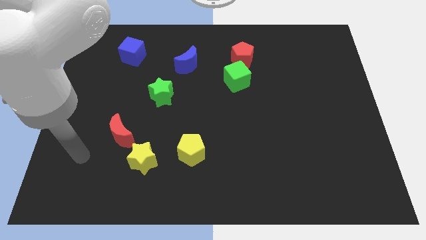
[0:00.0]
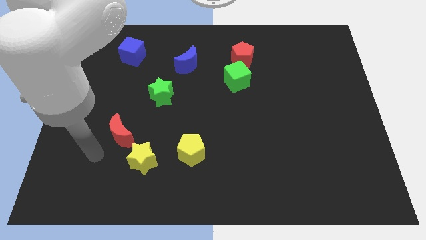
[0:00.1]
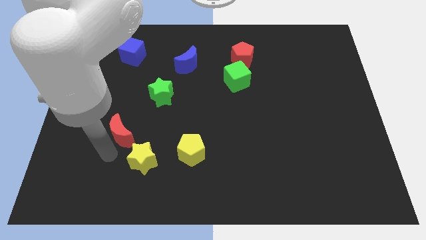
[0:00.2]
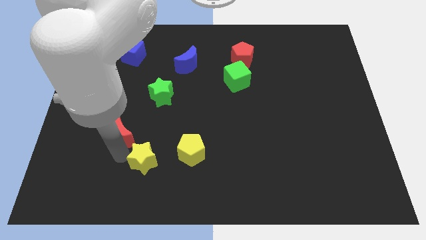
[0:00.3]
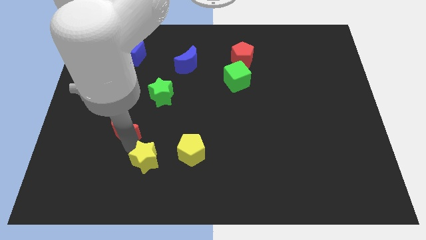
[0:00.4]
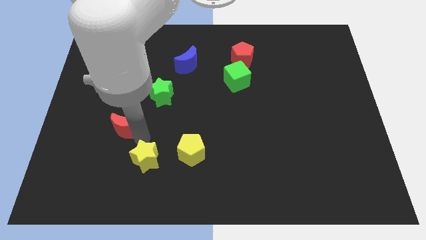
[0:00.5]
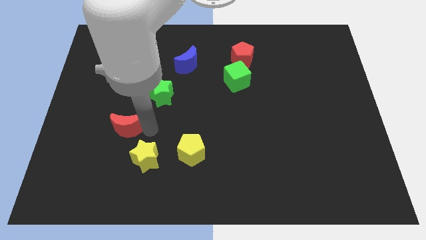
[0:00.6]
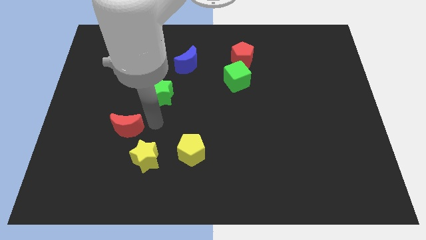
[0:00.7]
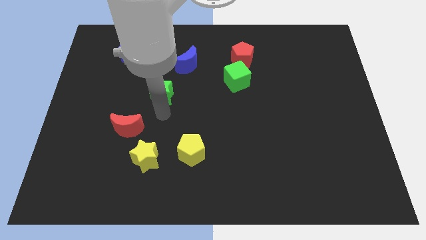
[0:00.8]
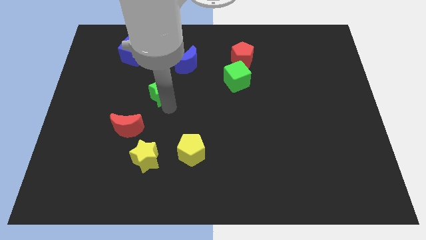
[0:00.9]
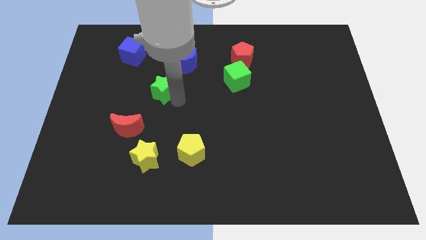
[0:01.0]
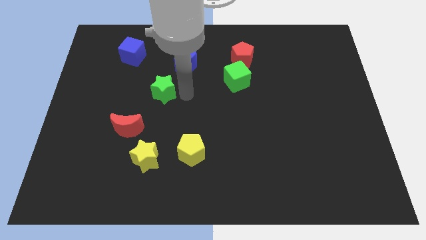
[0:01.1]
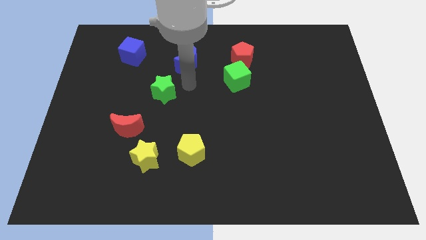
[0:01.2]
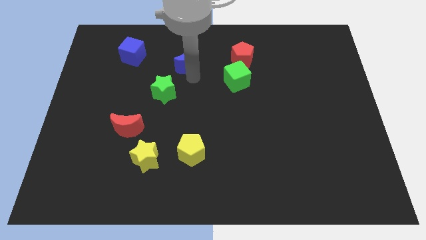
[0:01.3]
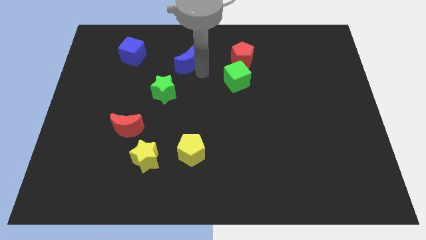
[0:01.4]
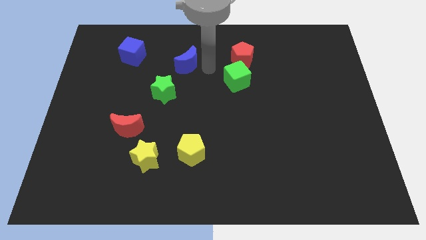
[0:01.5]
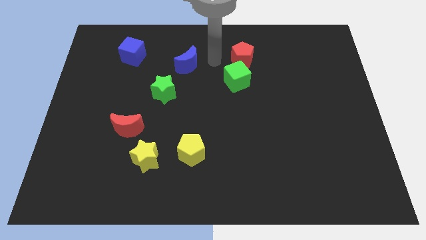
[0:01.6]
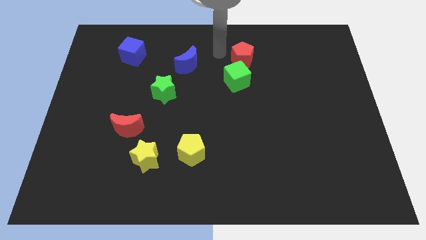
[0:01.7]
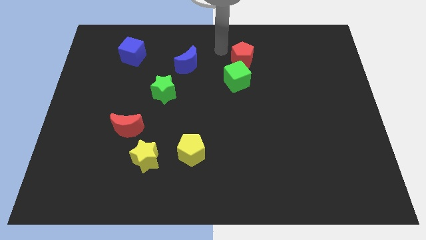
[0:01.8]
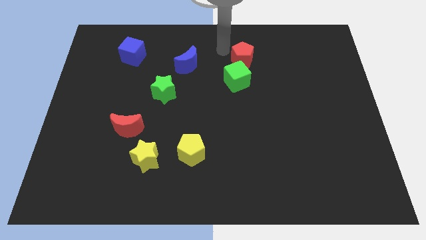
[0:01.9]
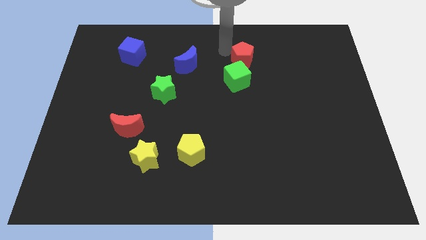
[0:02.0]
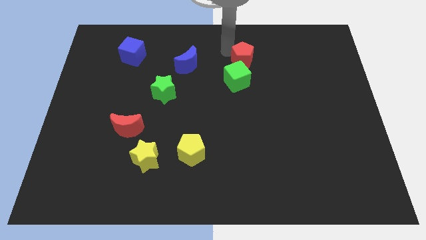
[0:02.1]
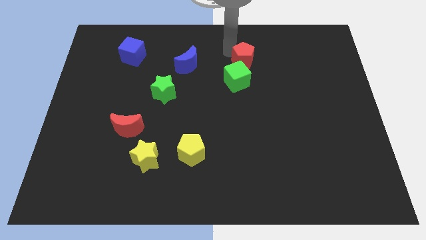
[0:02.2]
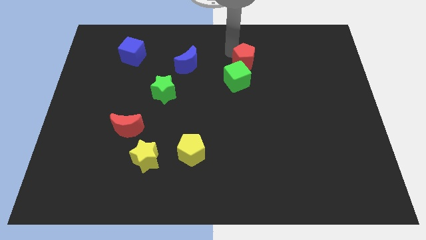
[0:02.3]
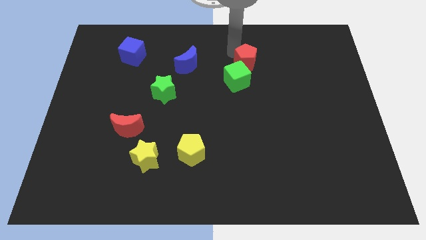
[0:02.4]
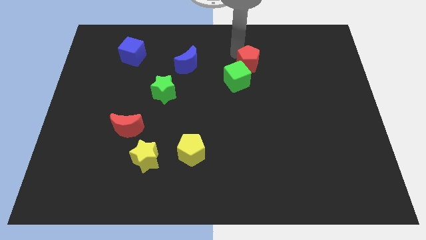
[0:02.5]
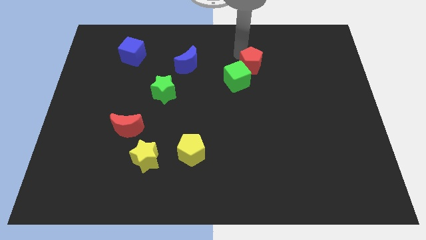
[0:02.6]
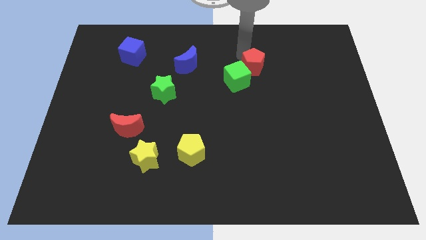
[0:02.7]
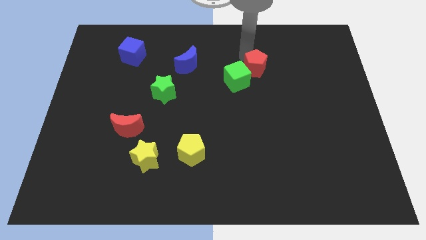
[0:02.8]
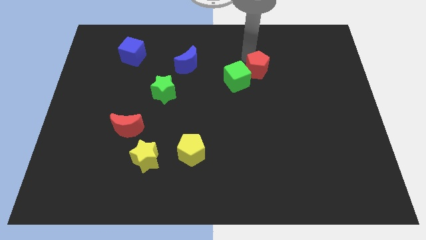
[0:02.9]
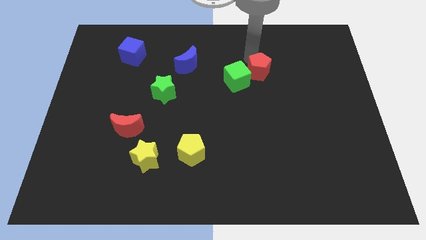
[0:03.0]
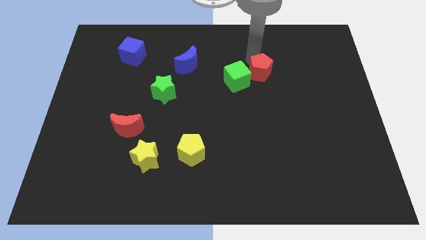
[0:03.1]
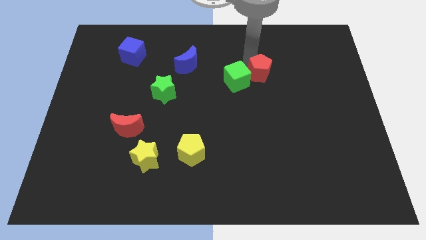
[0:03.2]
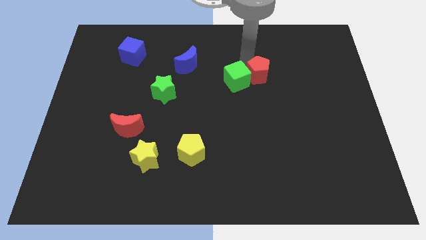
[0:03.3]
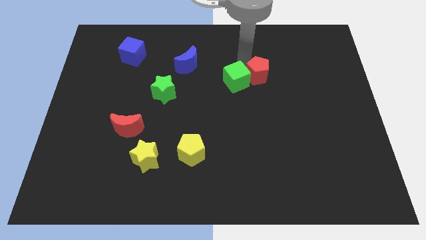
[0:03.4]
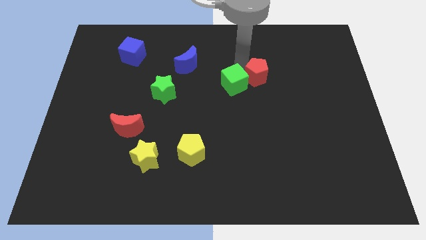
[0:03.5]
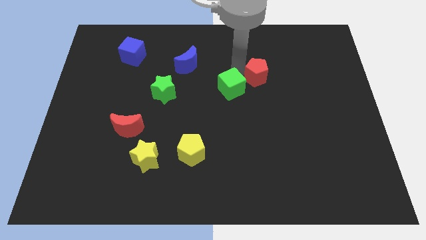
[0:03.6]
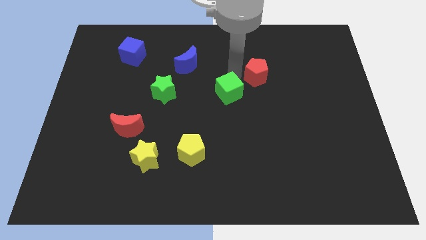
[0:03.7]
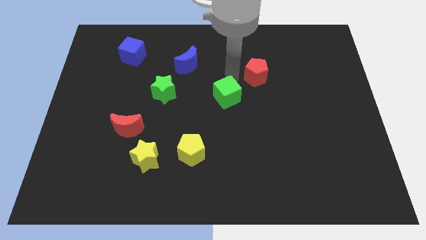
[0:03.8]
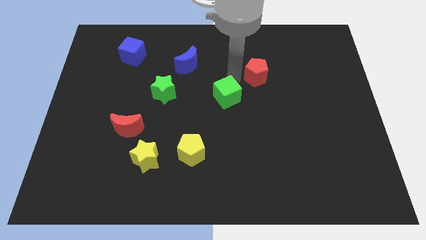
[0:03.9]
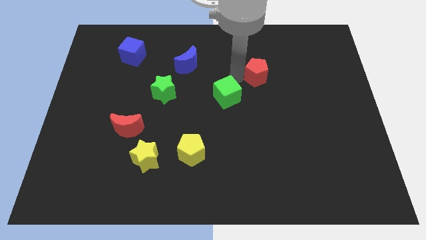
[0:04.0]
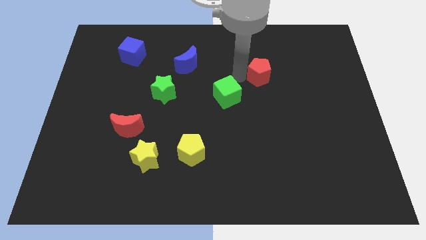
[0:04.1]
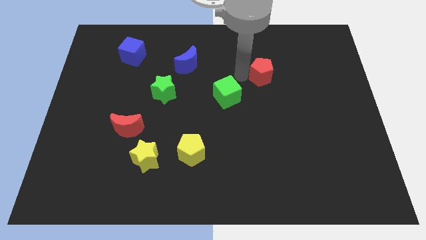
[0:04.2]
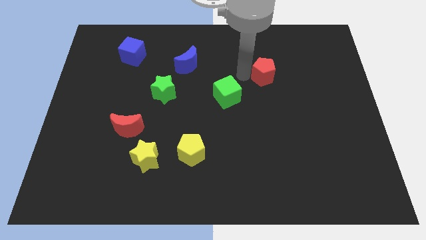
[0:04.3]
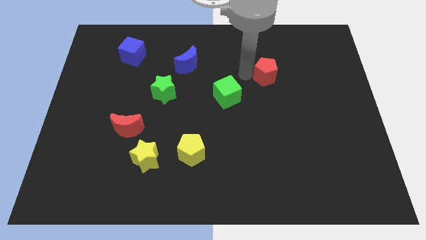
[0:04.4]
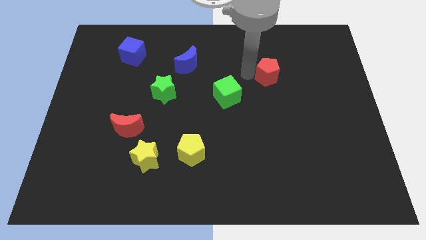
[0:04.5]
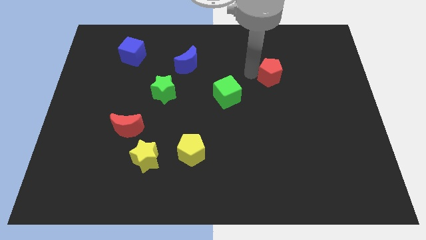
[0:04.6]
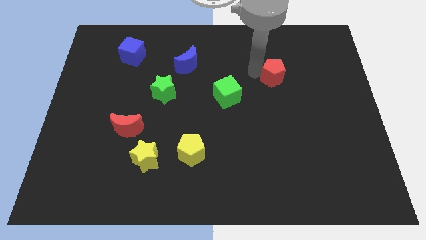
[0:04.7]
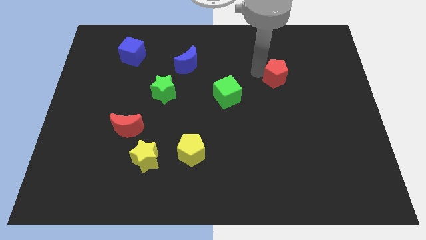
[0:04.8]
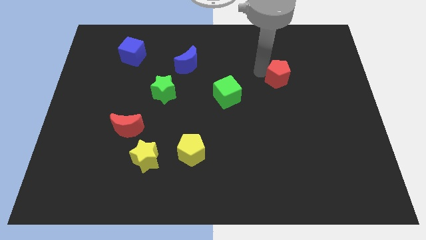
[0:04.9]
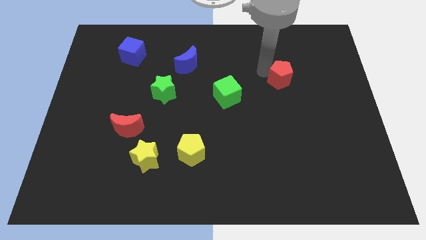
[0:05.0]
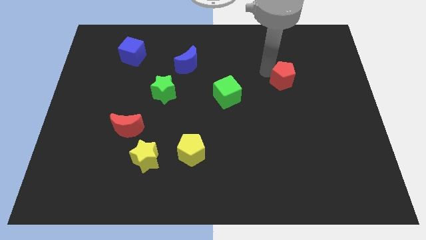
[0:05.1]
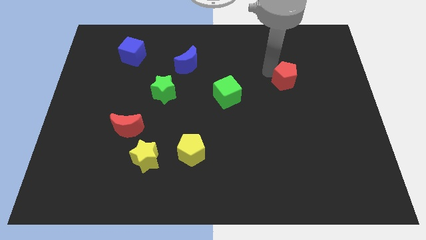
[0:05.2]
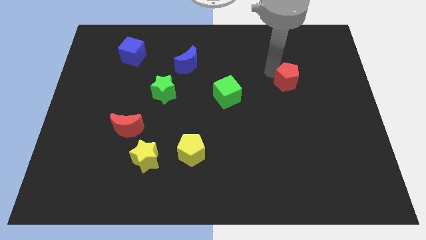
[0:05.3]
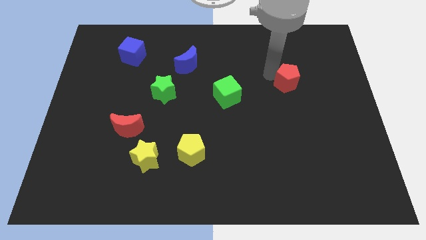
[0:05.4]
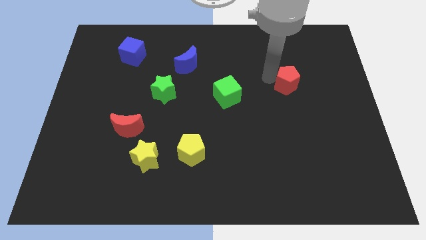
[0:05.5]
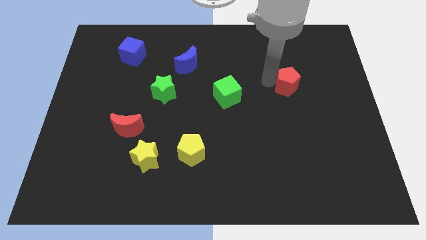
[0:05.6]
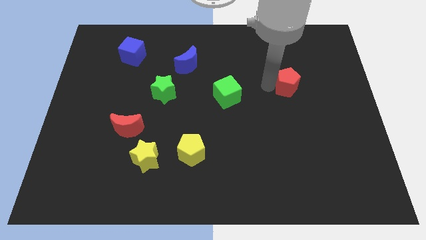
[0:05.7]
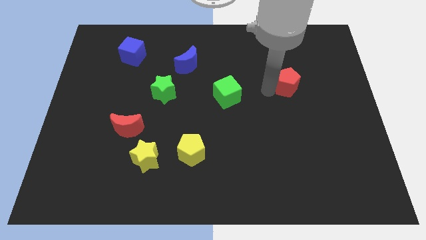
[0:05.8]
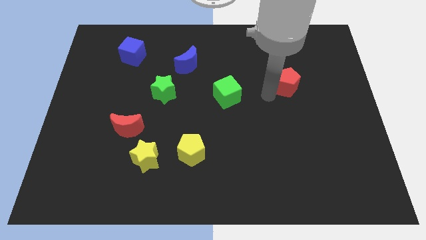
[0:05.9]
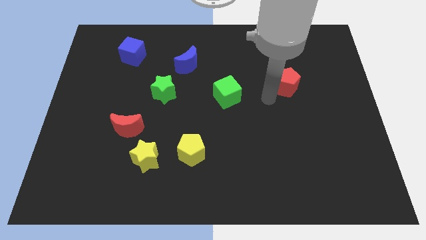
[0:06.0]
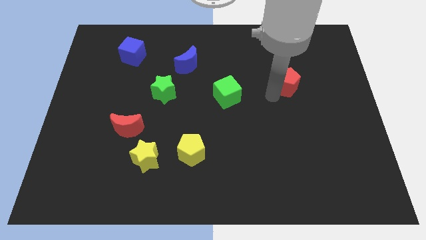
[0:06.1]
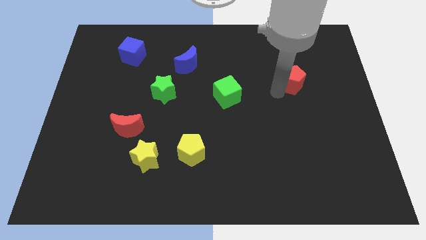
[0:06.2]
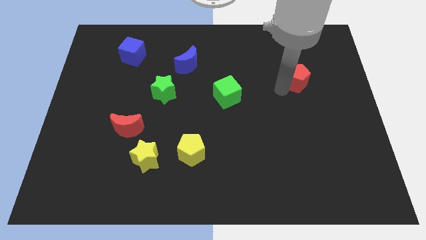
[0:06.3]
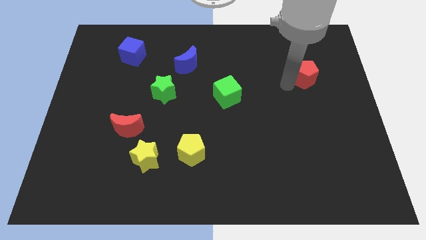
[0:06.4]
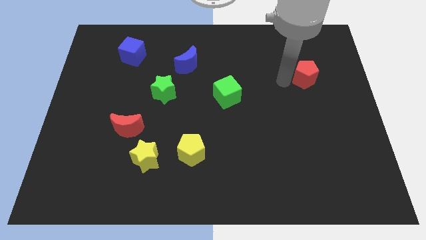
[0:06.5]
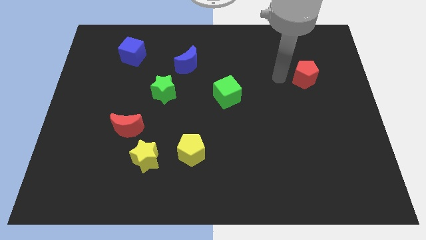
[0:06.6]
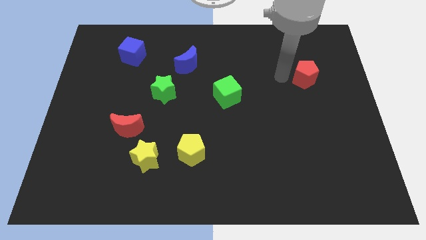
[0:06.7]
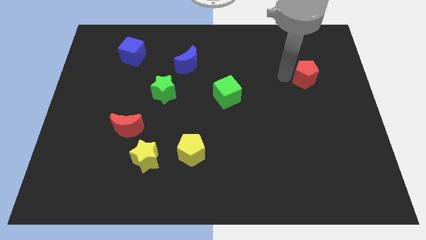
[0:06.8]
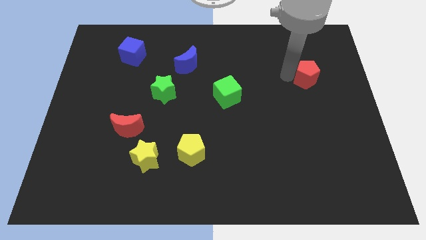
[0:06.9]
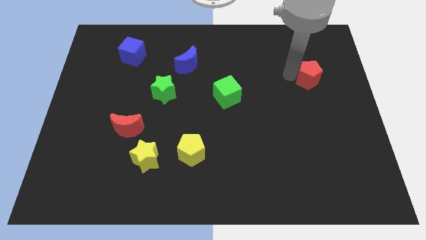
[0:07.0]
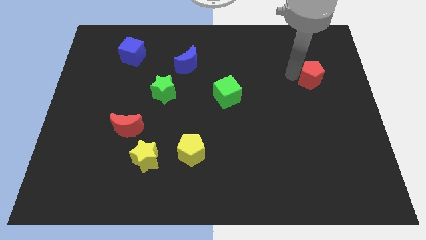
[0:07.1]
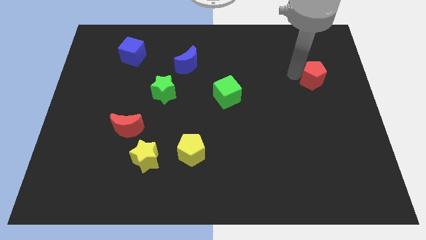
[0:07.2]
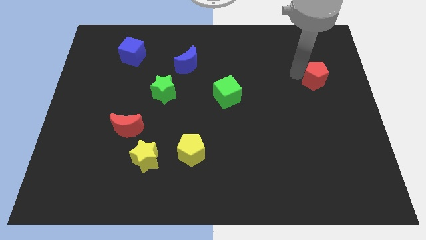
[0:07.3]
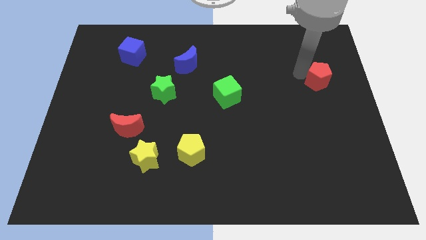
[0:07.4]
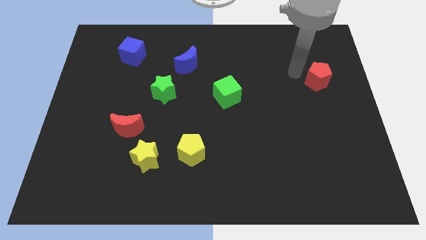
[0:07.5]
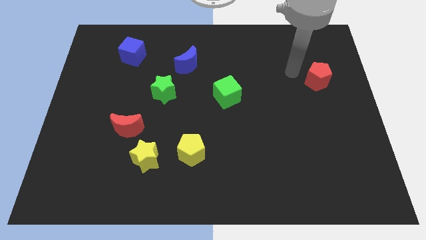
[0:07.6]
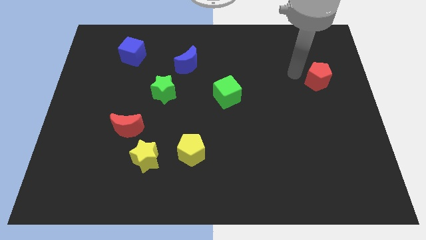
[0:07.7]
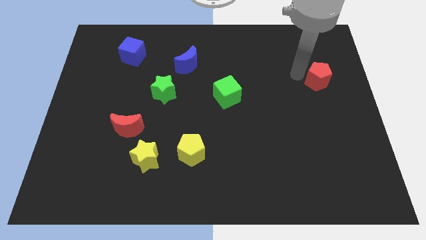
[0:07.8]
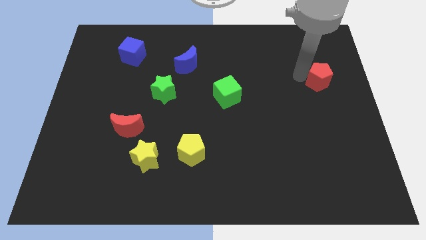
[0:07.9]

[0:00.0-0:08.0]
put the red pentagon to the right side
